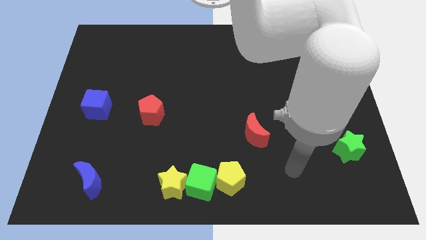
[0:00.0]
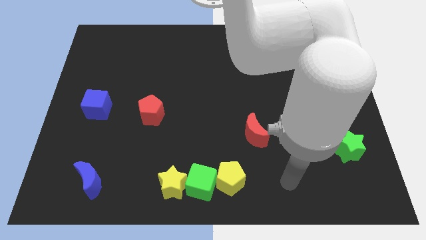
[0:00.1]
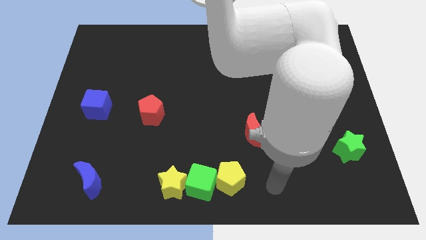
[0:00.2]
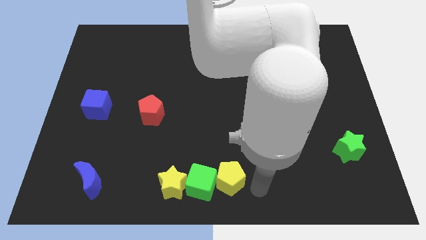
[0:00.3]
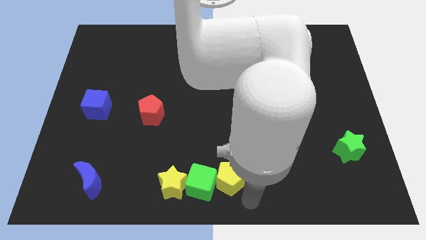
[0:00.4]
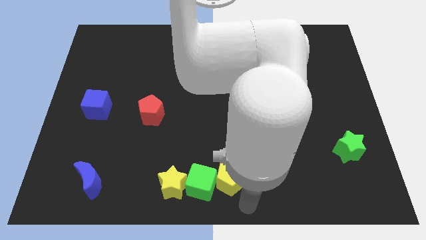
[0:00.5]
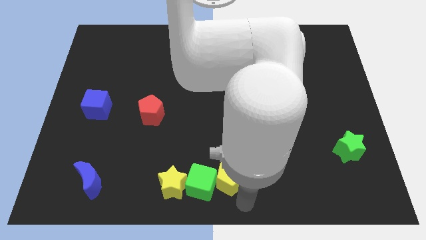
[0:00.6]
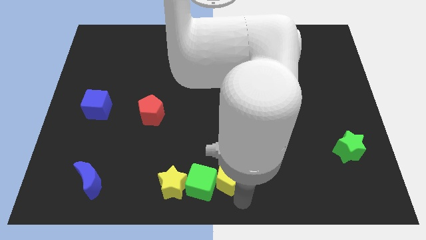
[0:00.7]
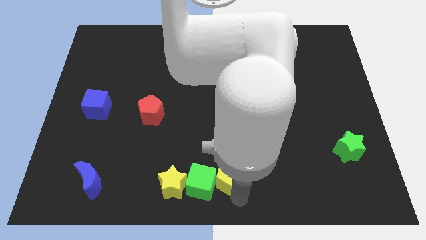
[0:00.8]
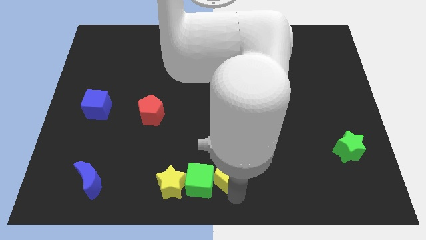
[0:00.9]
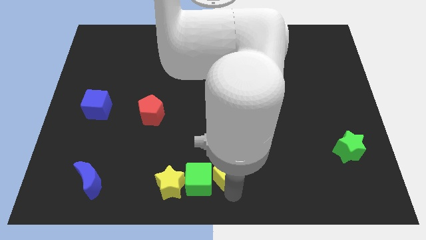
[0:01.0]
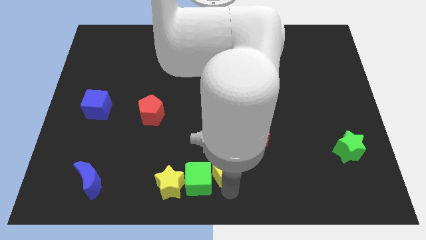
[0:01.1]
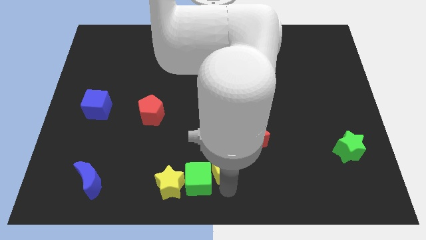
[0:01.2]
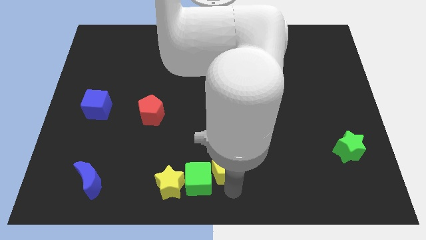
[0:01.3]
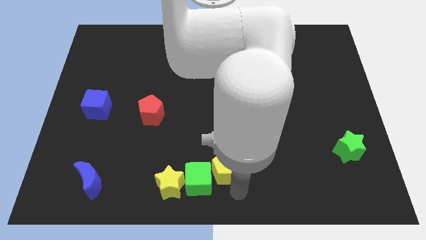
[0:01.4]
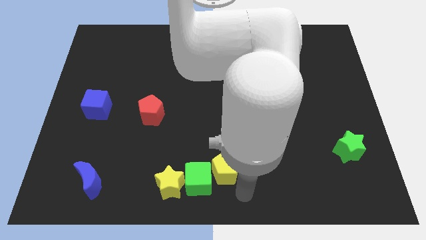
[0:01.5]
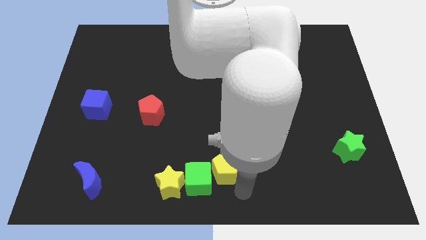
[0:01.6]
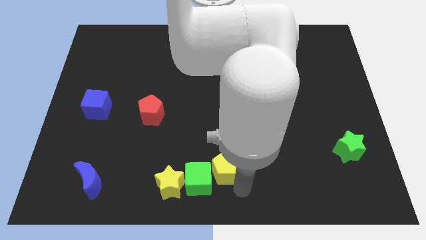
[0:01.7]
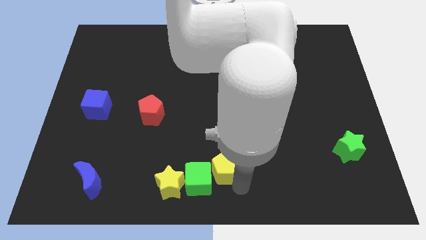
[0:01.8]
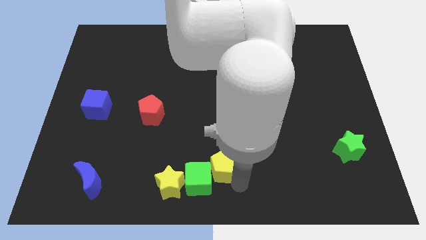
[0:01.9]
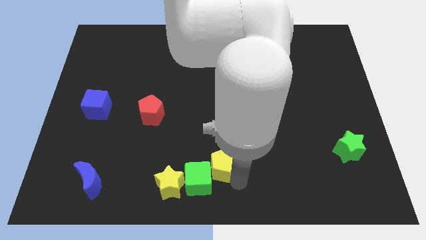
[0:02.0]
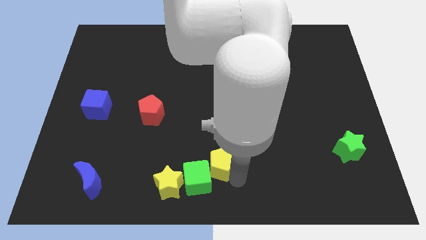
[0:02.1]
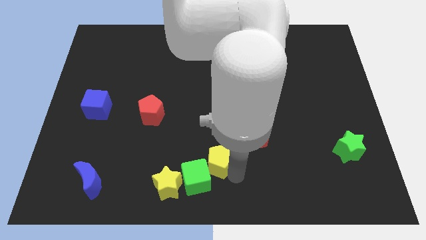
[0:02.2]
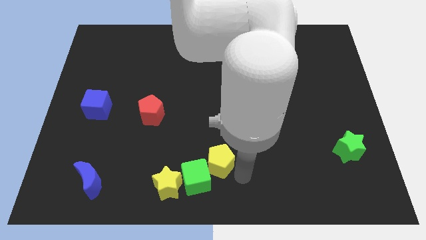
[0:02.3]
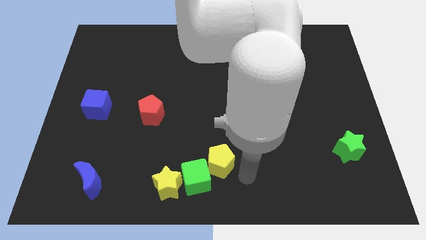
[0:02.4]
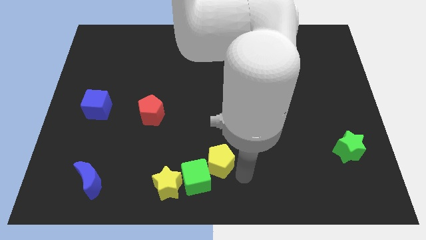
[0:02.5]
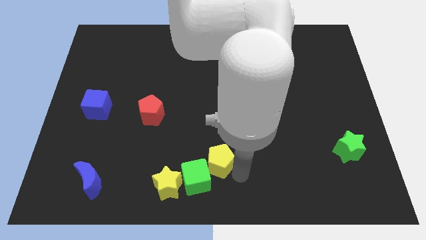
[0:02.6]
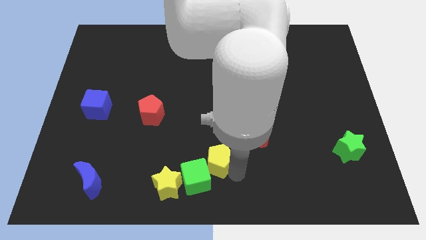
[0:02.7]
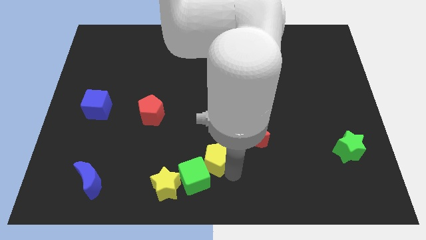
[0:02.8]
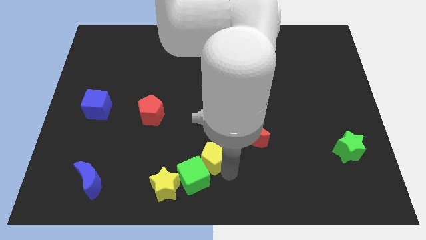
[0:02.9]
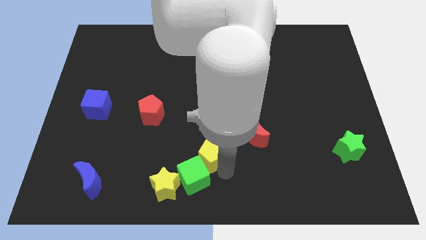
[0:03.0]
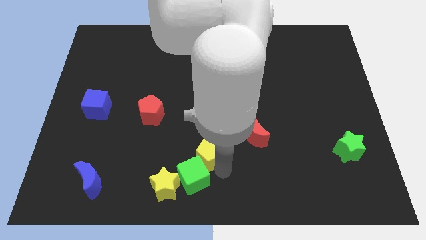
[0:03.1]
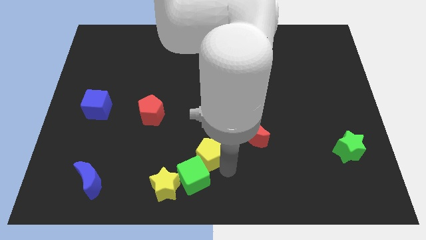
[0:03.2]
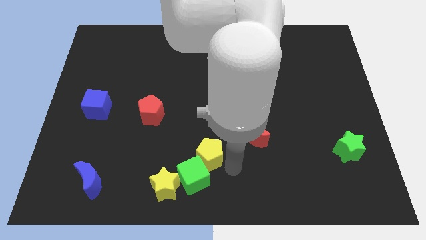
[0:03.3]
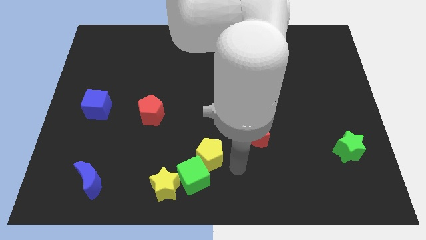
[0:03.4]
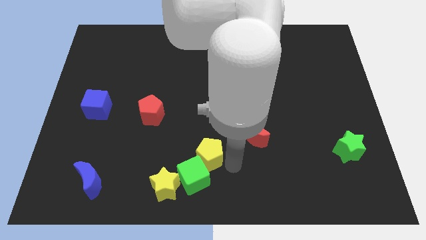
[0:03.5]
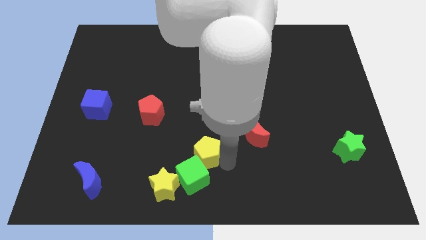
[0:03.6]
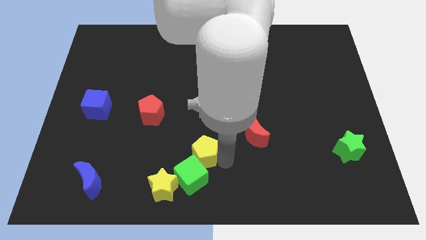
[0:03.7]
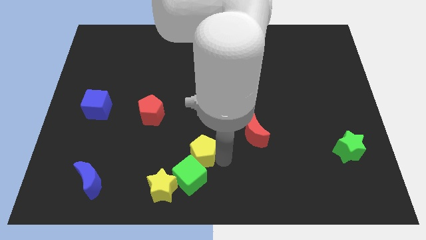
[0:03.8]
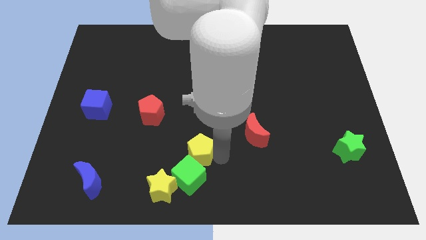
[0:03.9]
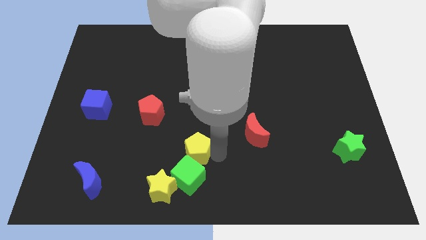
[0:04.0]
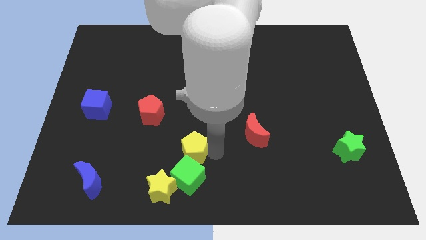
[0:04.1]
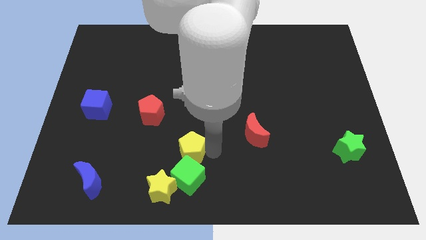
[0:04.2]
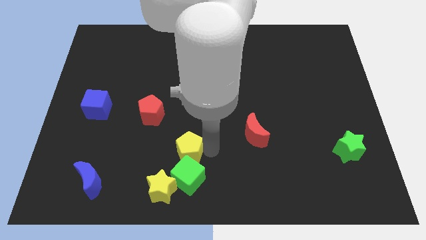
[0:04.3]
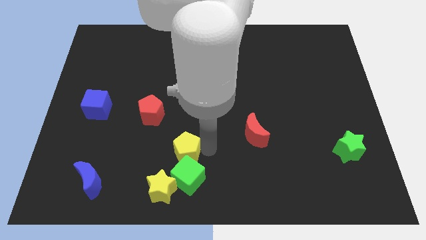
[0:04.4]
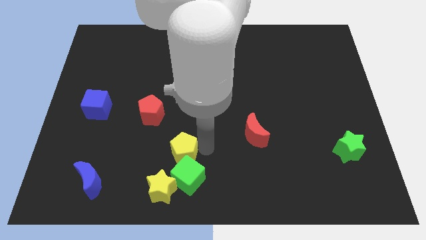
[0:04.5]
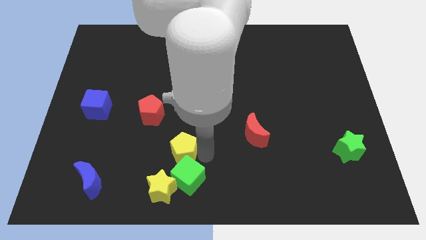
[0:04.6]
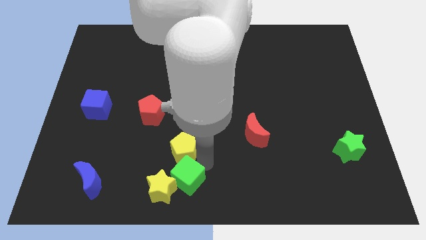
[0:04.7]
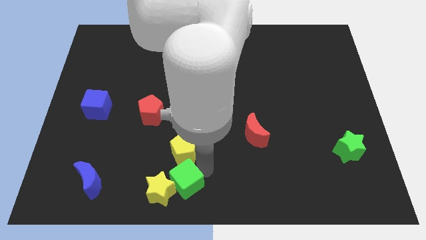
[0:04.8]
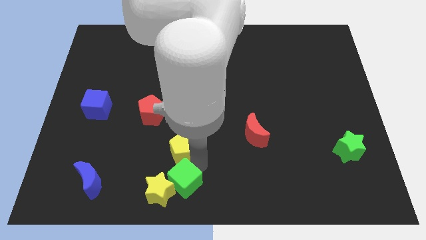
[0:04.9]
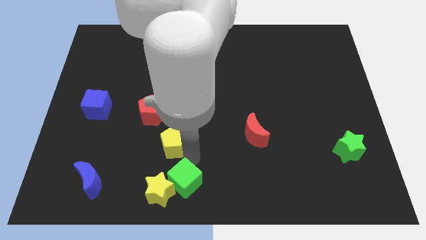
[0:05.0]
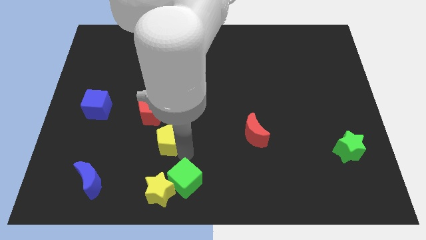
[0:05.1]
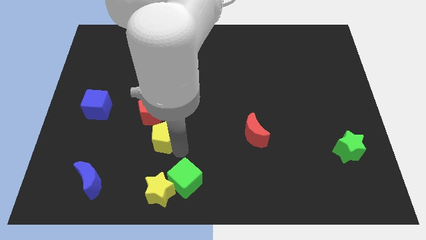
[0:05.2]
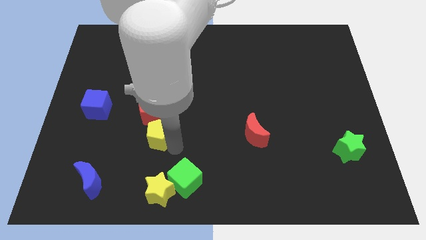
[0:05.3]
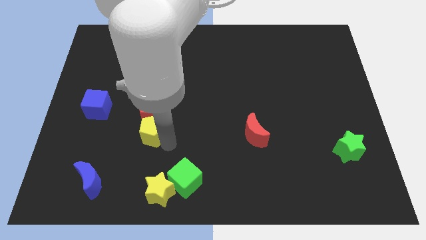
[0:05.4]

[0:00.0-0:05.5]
put the yellow pentagon close to the red pentagon

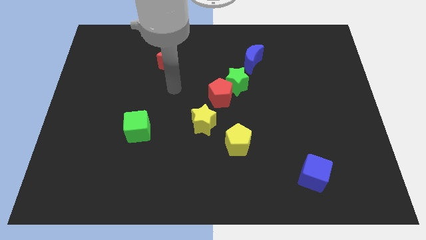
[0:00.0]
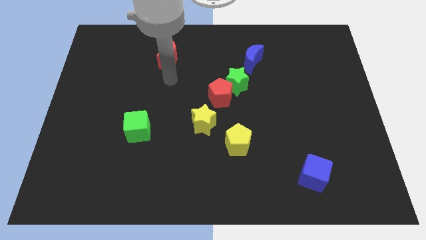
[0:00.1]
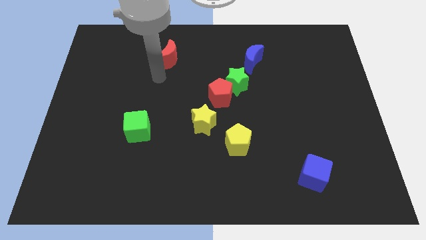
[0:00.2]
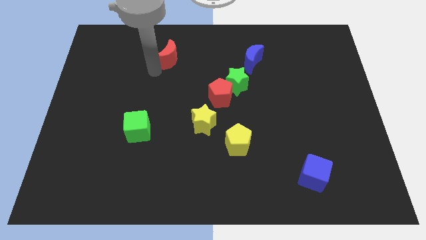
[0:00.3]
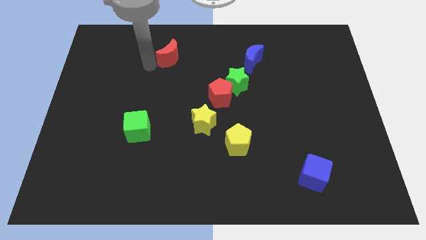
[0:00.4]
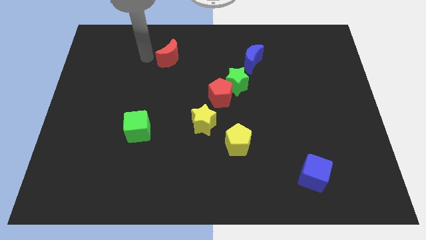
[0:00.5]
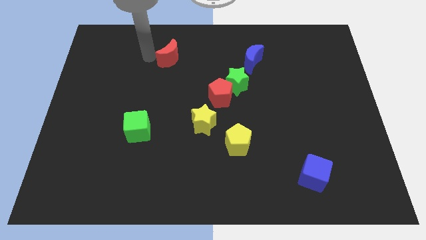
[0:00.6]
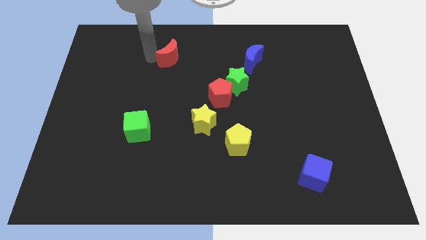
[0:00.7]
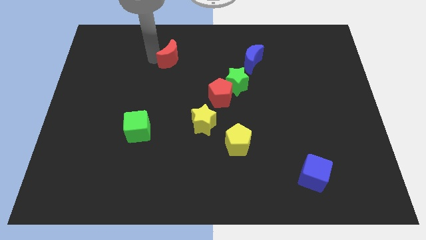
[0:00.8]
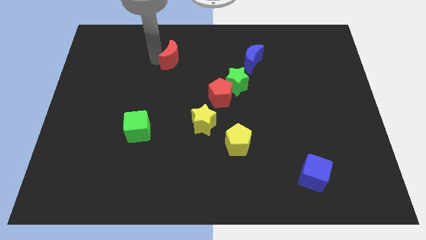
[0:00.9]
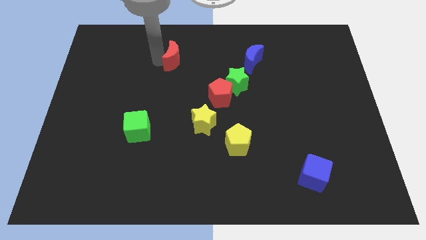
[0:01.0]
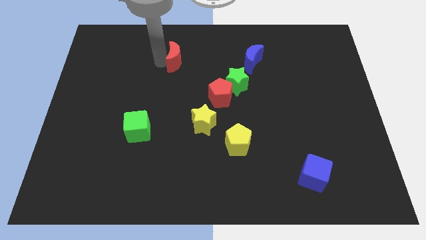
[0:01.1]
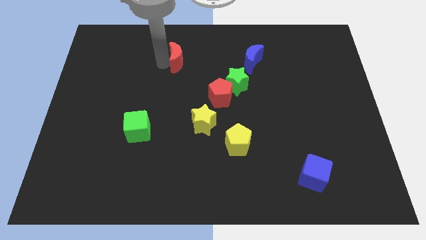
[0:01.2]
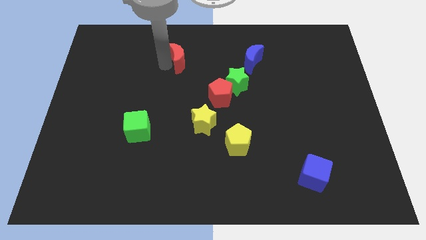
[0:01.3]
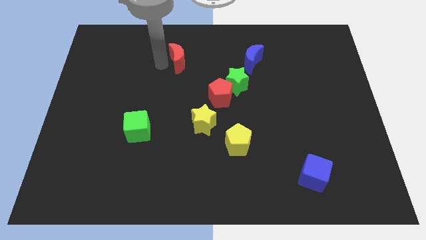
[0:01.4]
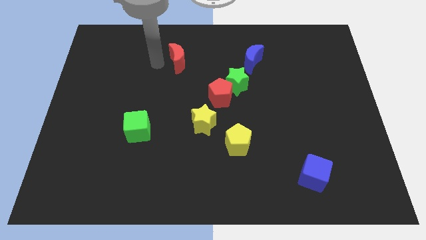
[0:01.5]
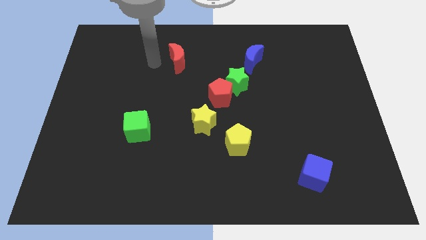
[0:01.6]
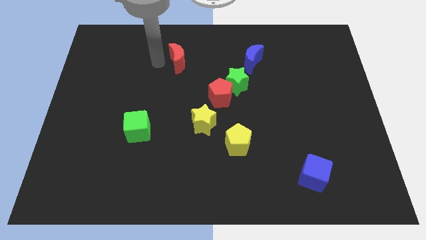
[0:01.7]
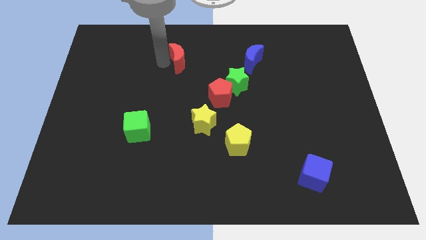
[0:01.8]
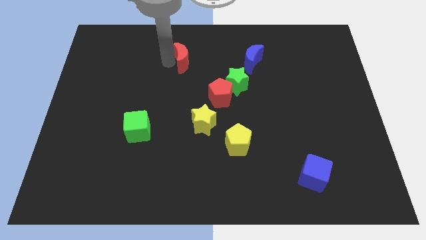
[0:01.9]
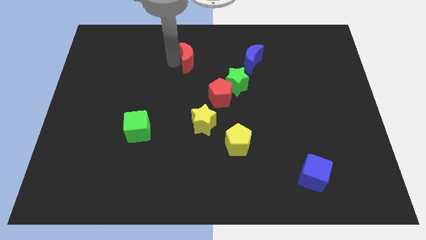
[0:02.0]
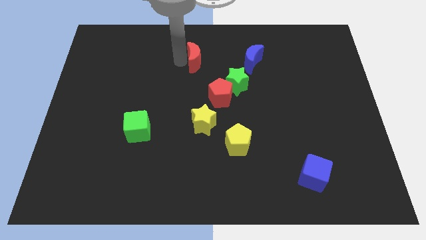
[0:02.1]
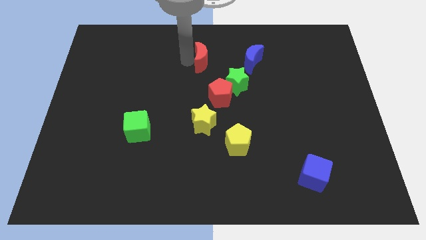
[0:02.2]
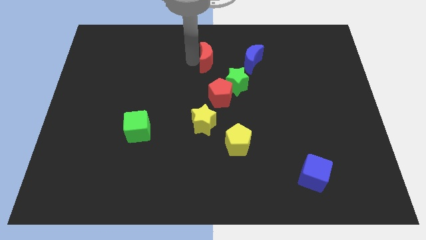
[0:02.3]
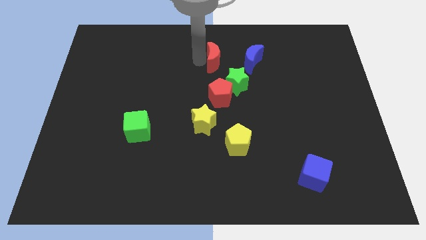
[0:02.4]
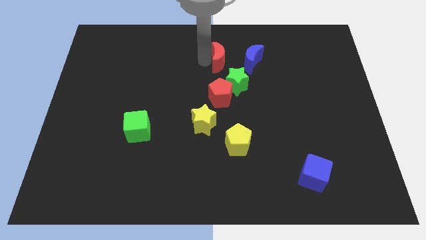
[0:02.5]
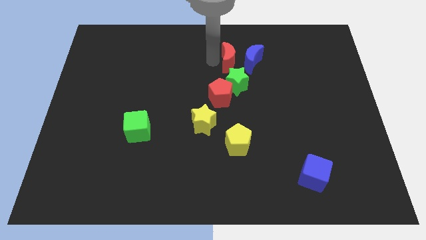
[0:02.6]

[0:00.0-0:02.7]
slide the red moon to the blue moon
